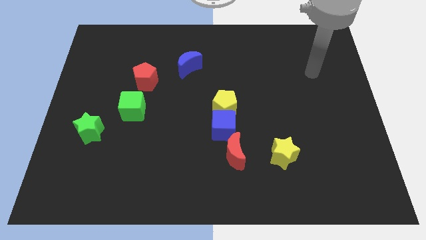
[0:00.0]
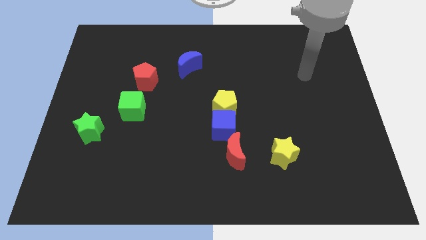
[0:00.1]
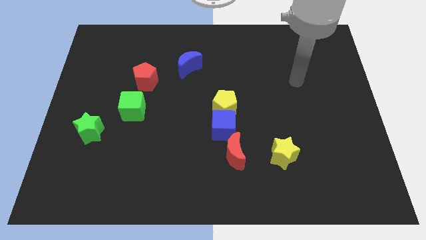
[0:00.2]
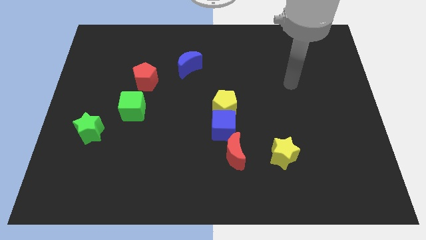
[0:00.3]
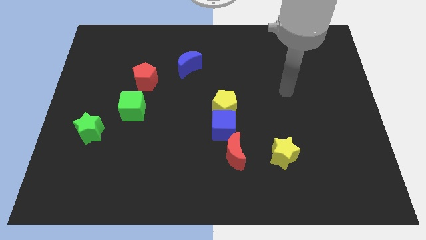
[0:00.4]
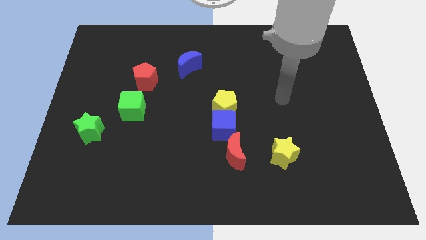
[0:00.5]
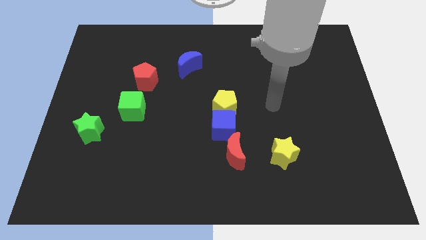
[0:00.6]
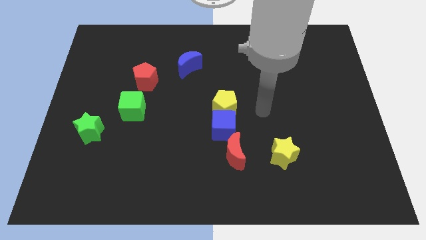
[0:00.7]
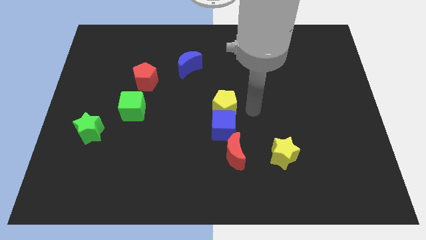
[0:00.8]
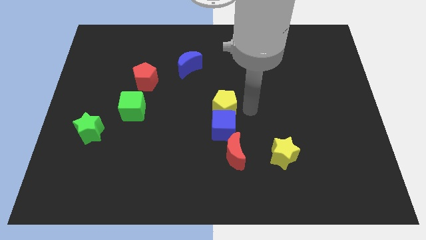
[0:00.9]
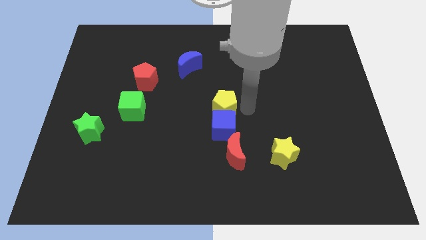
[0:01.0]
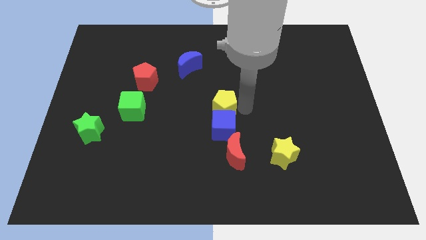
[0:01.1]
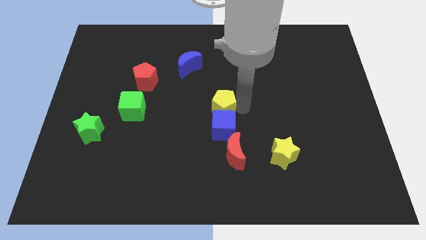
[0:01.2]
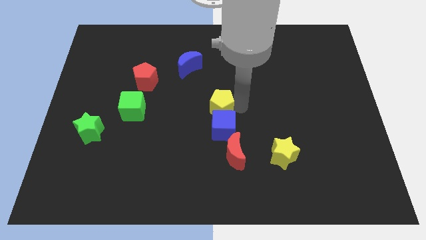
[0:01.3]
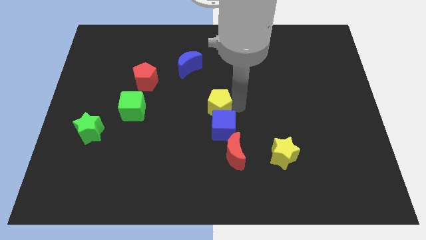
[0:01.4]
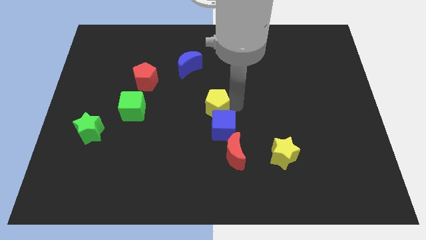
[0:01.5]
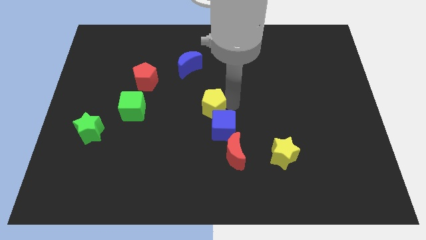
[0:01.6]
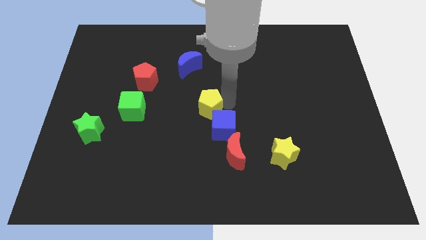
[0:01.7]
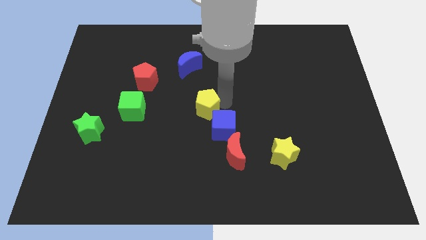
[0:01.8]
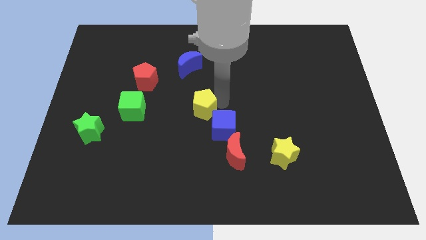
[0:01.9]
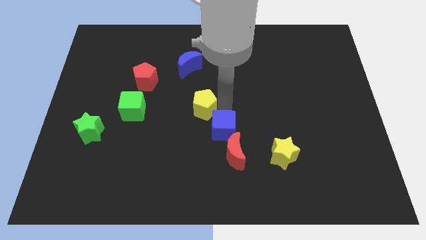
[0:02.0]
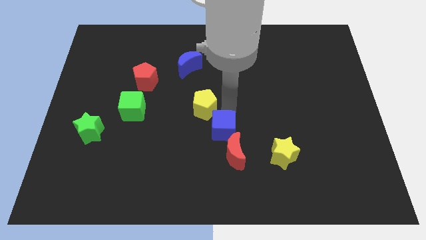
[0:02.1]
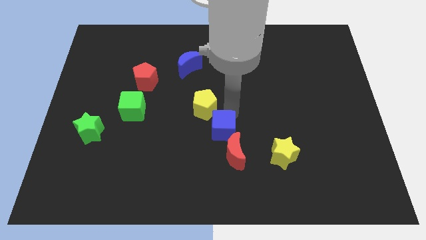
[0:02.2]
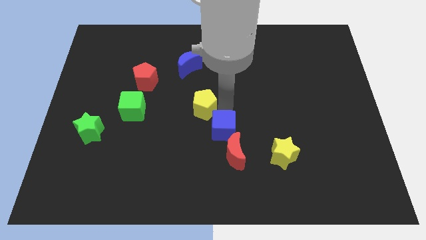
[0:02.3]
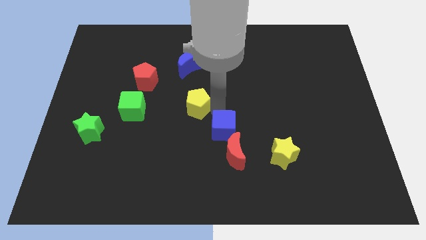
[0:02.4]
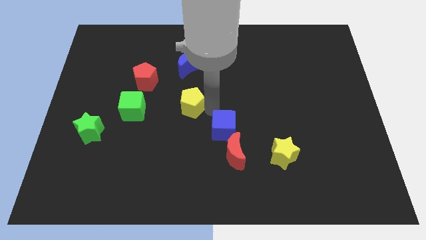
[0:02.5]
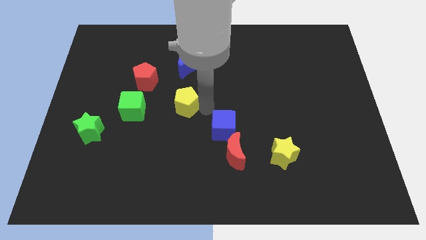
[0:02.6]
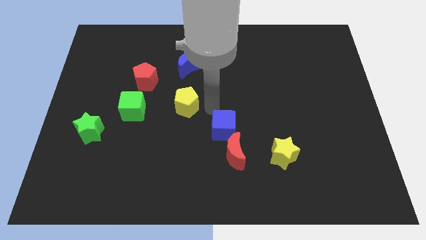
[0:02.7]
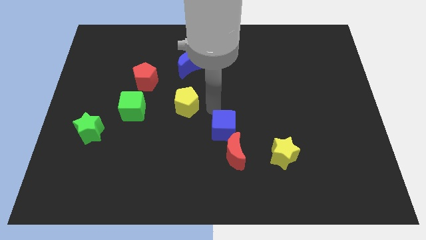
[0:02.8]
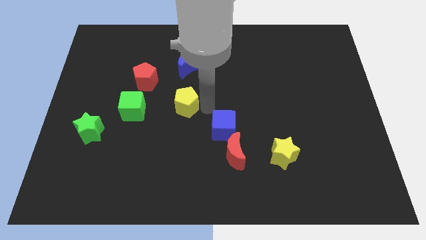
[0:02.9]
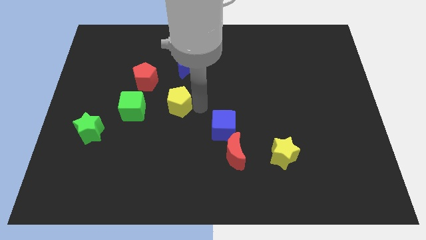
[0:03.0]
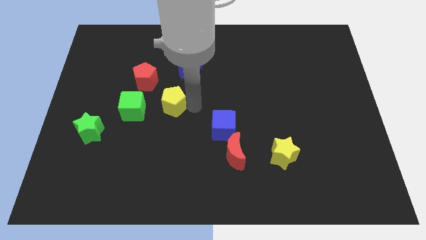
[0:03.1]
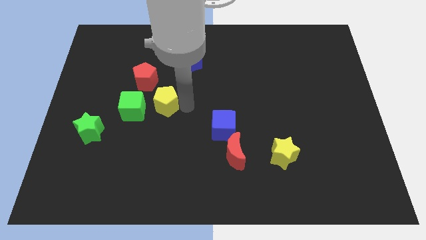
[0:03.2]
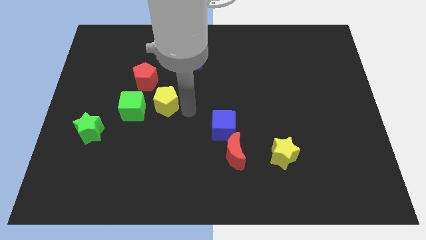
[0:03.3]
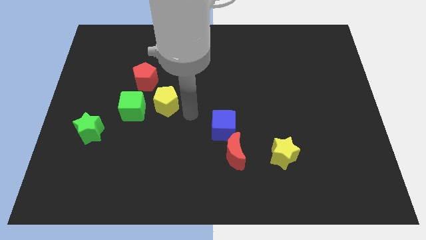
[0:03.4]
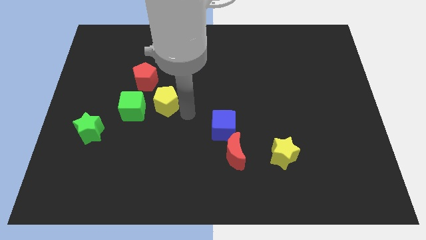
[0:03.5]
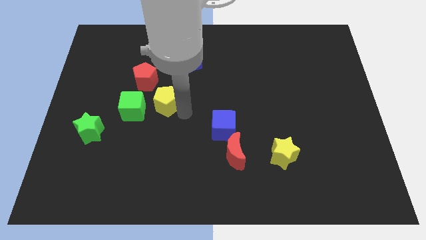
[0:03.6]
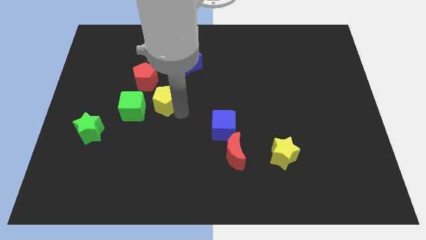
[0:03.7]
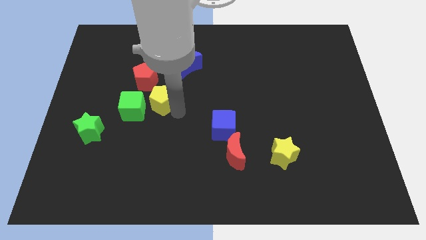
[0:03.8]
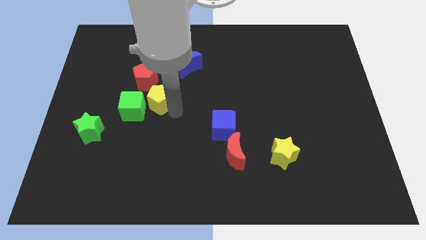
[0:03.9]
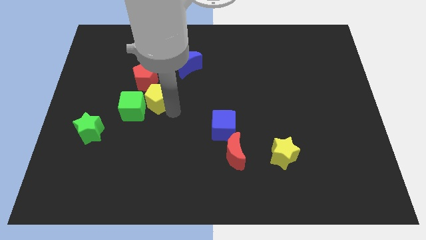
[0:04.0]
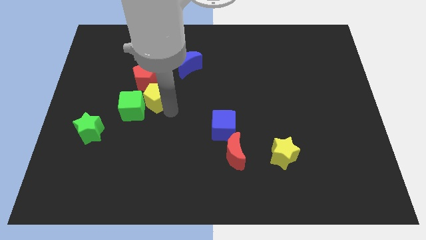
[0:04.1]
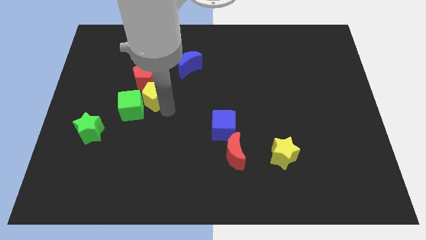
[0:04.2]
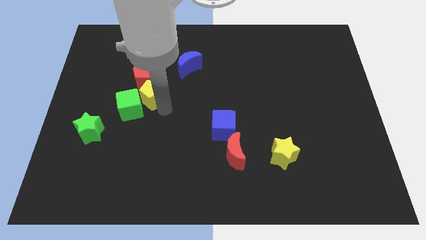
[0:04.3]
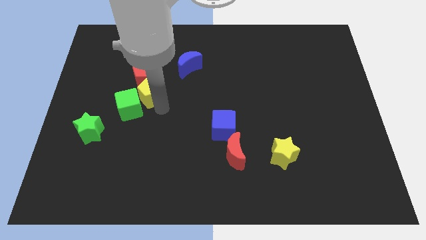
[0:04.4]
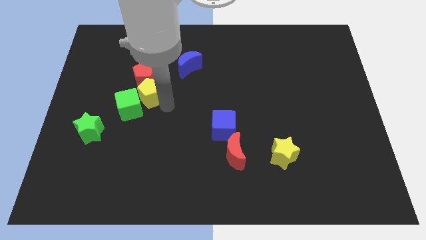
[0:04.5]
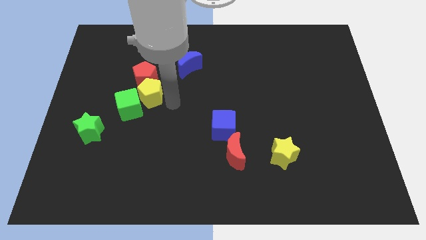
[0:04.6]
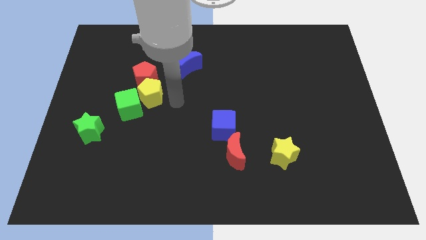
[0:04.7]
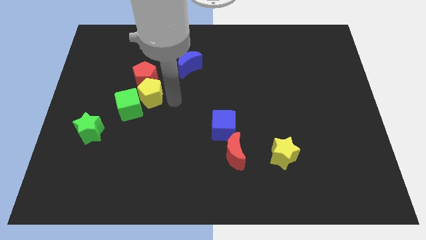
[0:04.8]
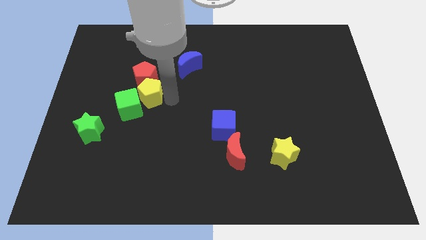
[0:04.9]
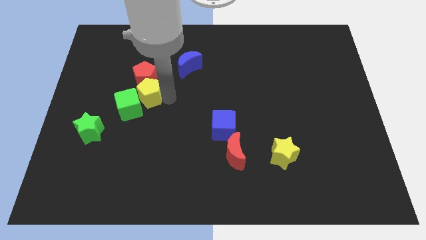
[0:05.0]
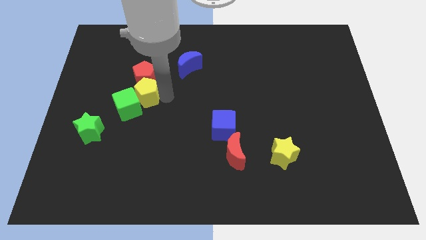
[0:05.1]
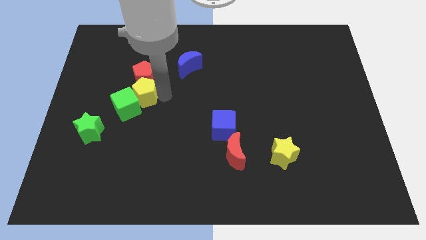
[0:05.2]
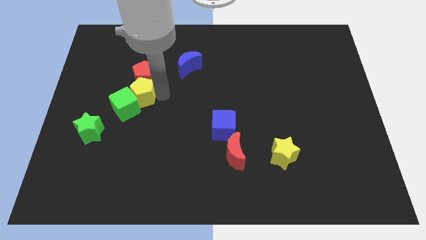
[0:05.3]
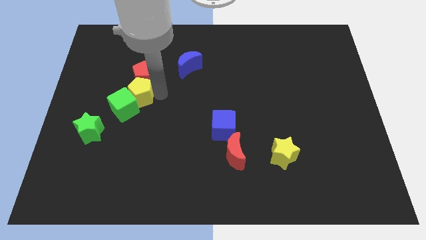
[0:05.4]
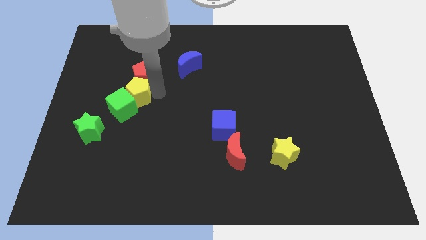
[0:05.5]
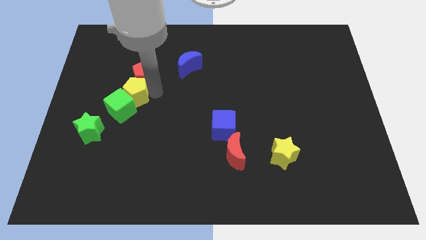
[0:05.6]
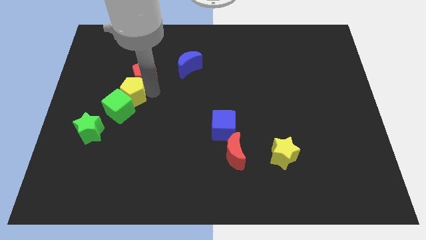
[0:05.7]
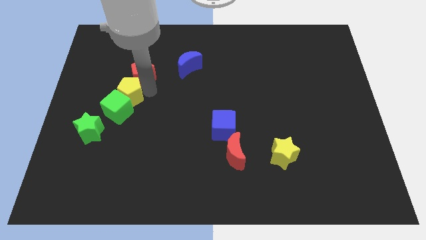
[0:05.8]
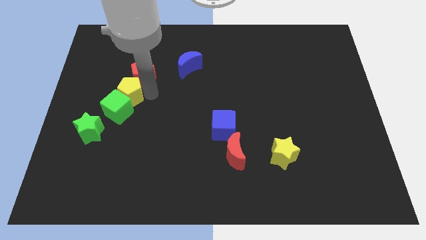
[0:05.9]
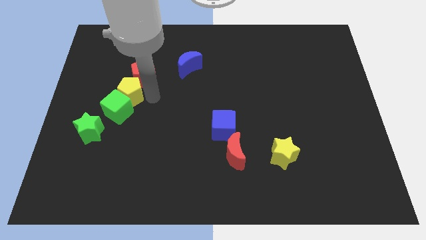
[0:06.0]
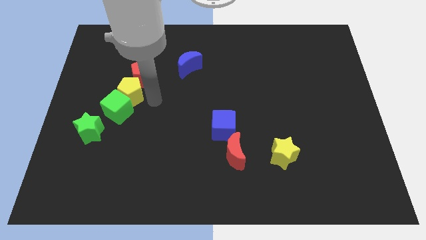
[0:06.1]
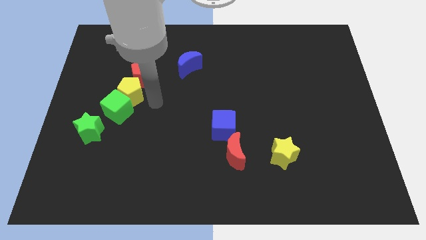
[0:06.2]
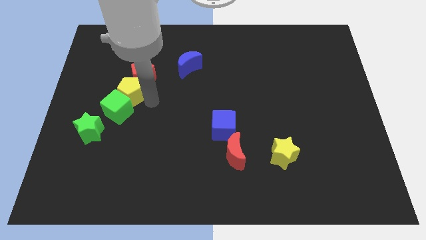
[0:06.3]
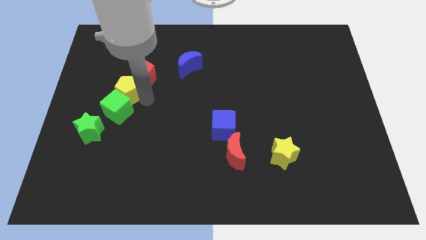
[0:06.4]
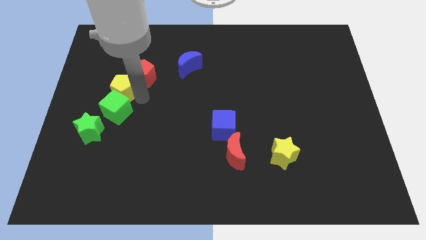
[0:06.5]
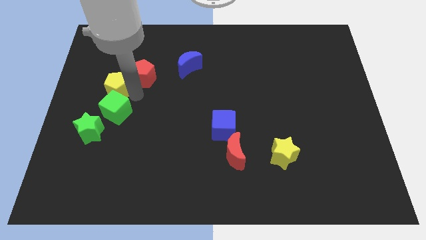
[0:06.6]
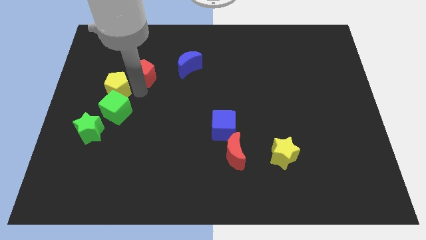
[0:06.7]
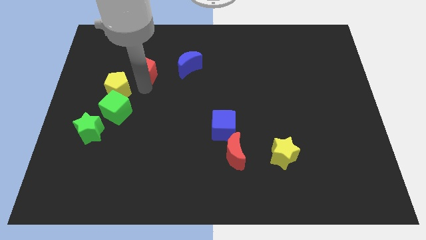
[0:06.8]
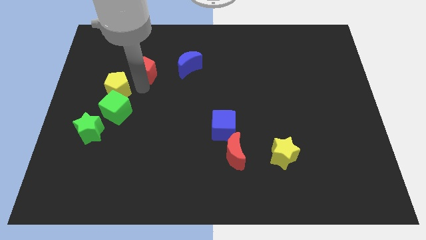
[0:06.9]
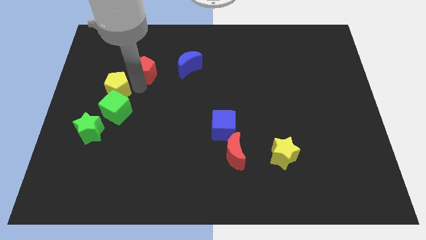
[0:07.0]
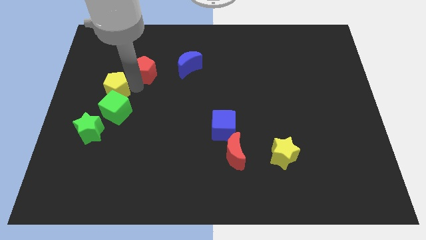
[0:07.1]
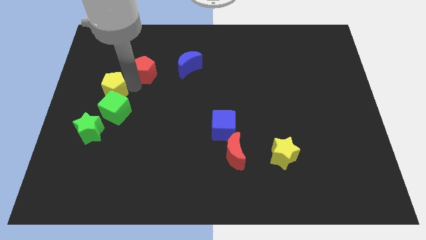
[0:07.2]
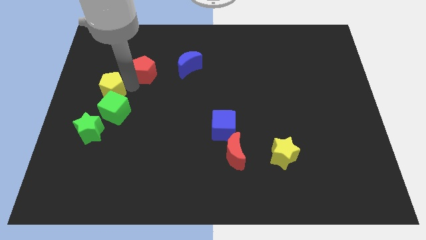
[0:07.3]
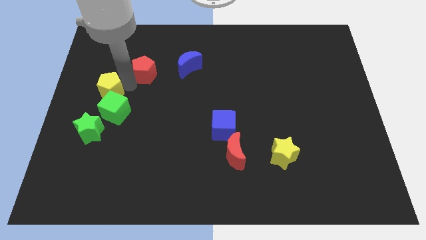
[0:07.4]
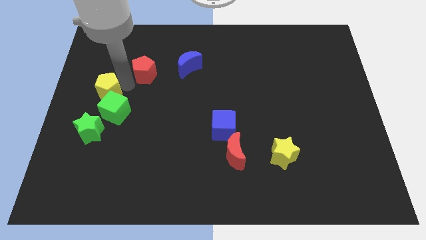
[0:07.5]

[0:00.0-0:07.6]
move the yellow pentagon to the center left
